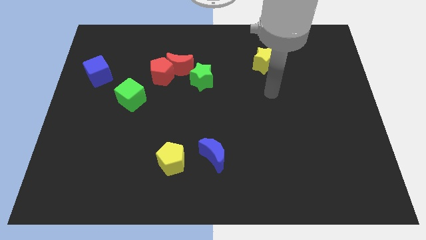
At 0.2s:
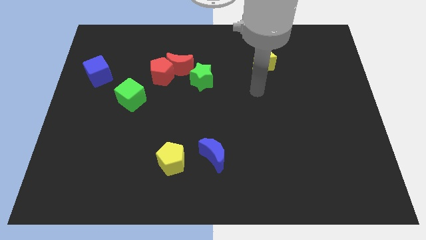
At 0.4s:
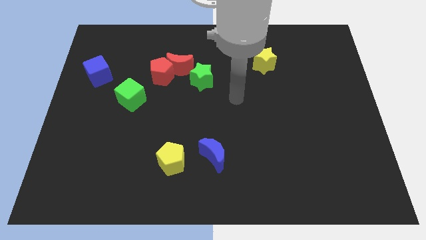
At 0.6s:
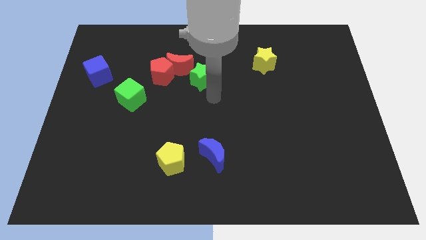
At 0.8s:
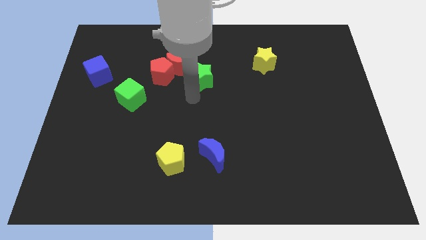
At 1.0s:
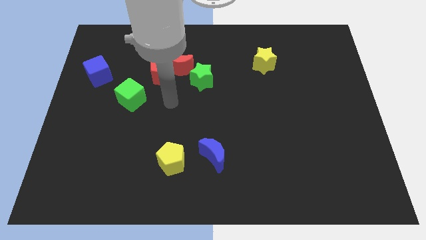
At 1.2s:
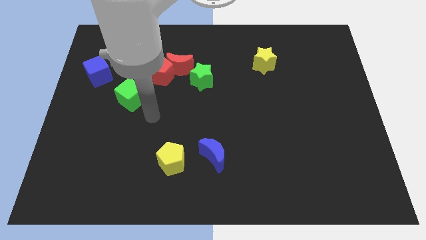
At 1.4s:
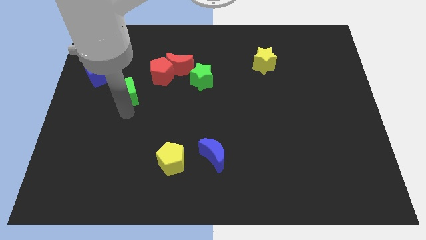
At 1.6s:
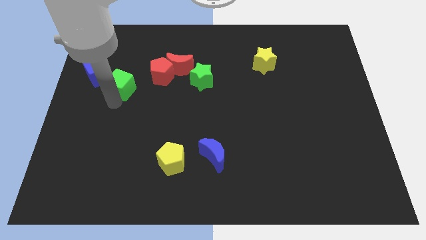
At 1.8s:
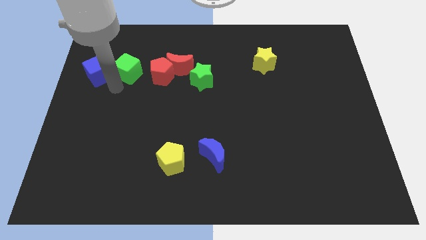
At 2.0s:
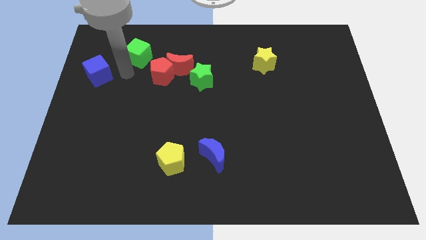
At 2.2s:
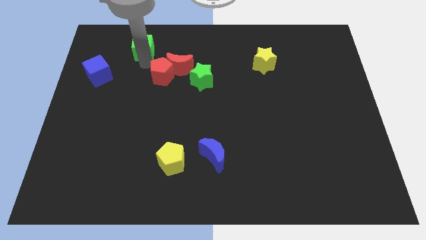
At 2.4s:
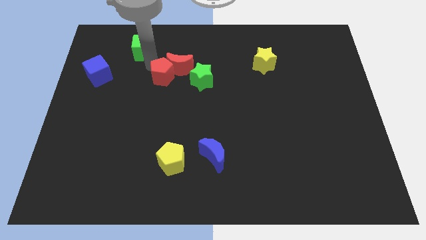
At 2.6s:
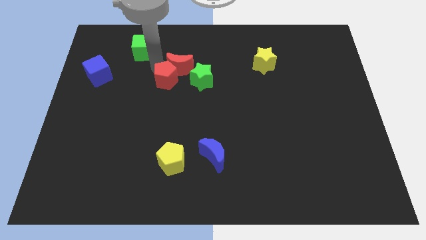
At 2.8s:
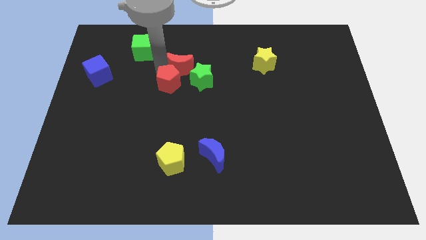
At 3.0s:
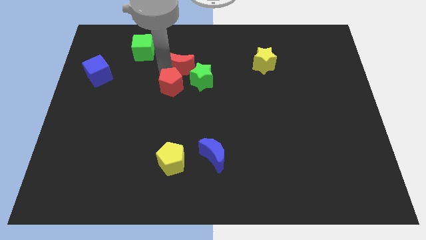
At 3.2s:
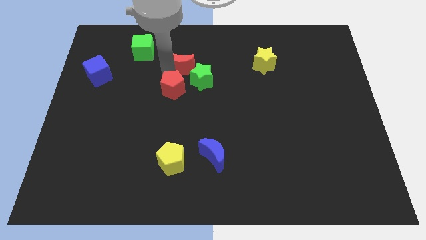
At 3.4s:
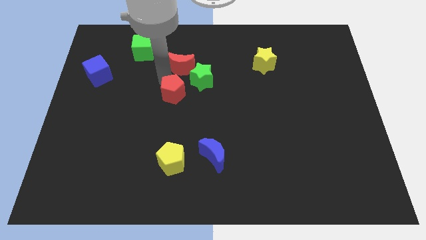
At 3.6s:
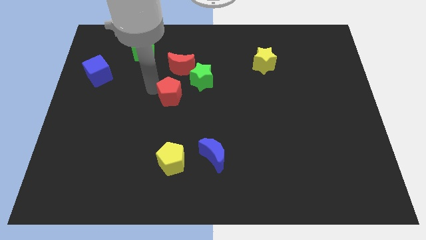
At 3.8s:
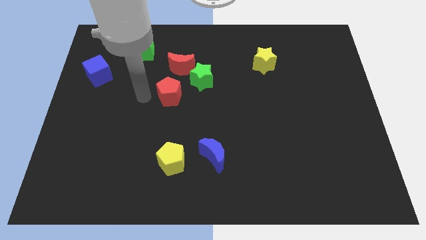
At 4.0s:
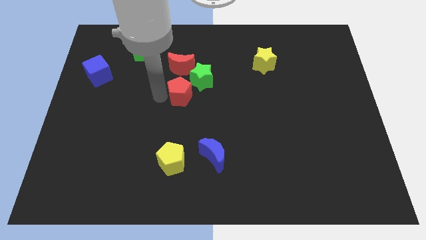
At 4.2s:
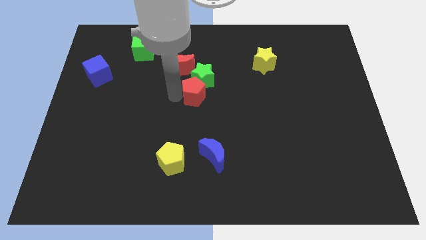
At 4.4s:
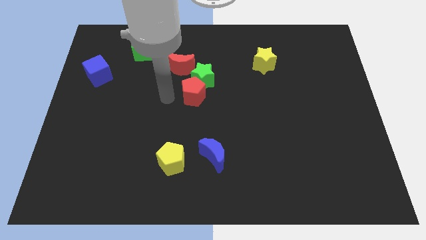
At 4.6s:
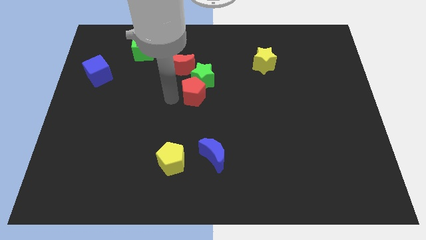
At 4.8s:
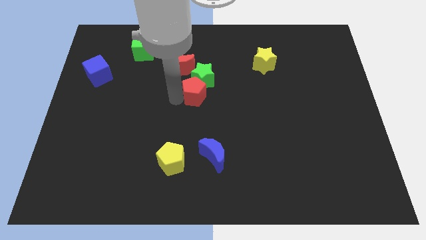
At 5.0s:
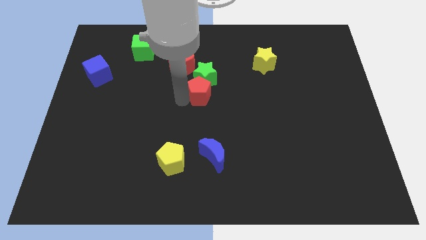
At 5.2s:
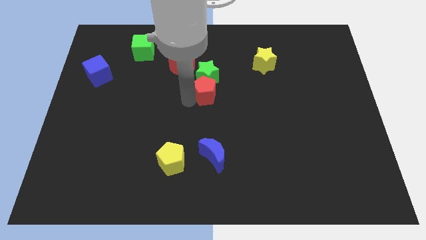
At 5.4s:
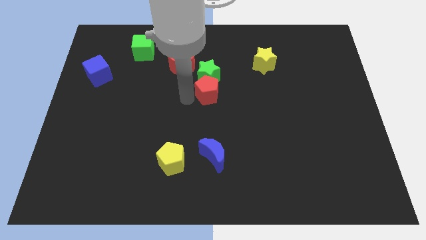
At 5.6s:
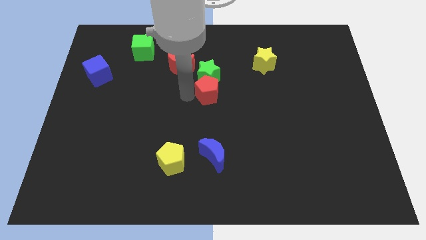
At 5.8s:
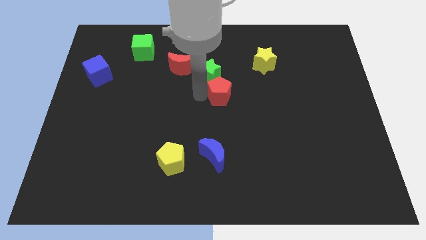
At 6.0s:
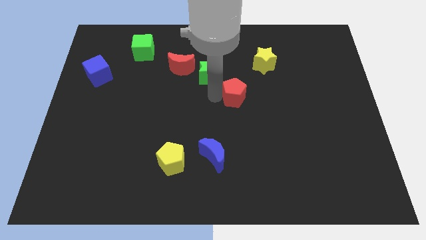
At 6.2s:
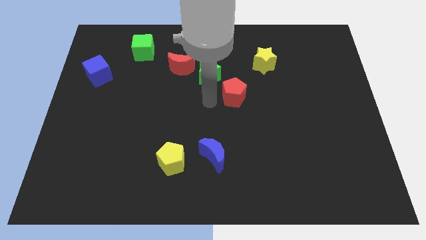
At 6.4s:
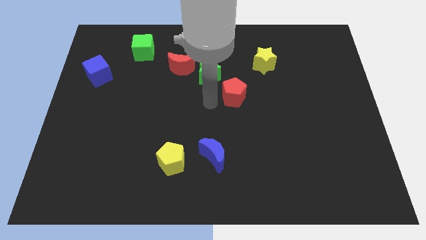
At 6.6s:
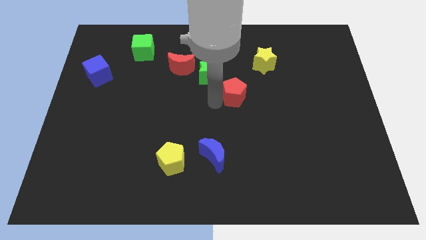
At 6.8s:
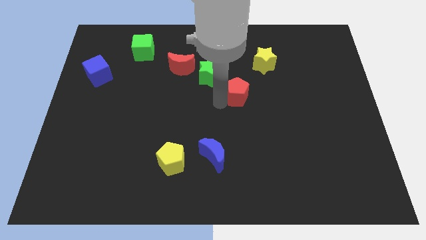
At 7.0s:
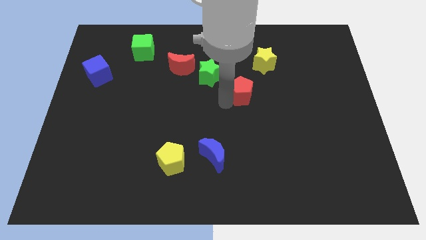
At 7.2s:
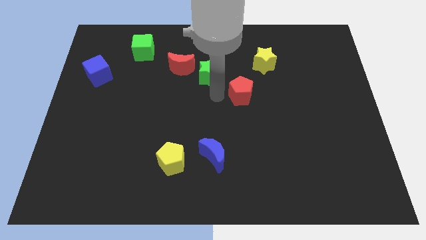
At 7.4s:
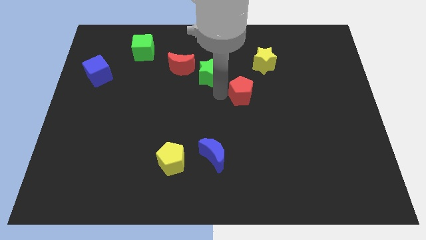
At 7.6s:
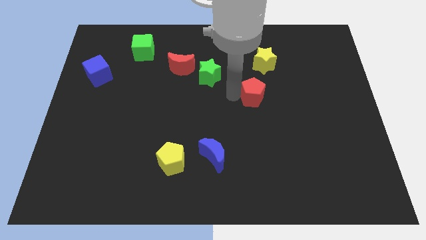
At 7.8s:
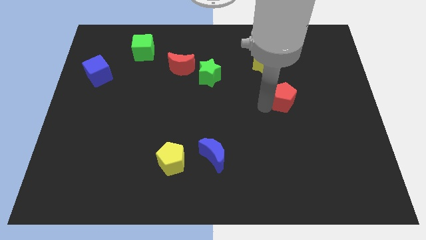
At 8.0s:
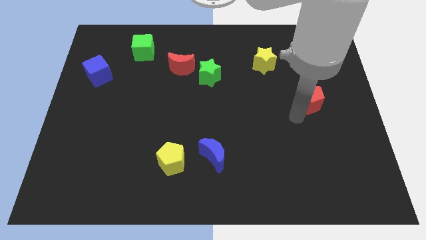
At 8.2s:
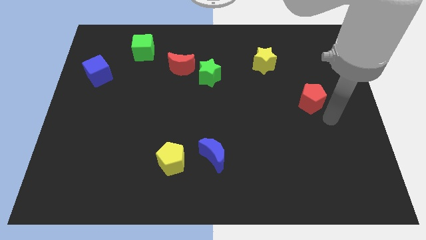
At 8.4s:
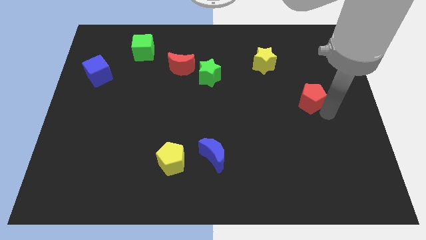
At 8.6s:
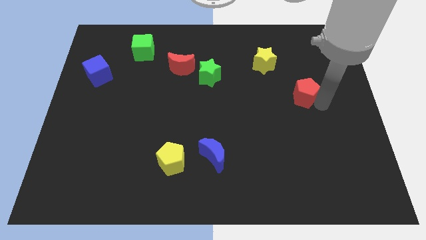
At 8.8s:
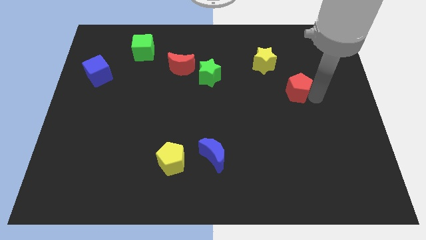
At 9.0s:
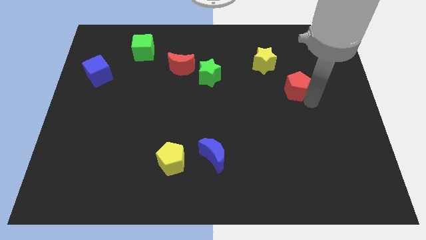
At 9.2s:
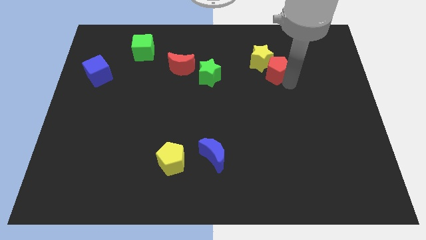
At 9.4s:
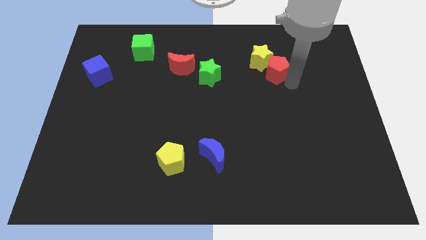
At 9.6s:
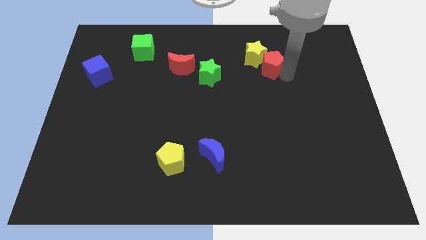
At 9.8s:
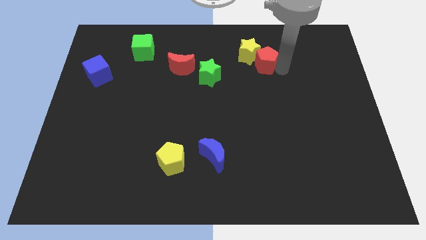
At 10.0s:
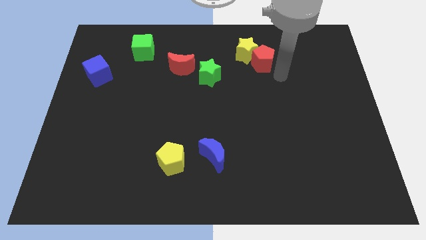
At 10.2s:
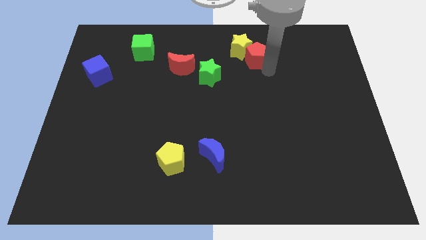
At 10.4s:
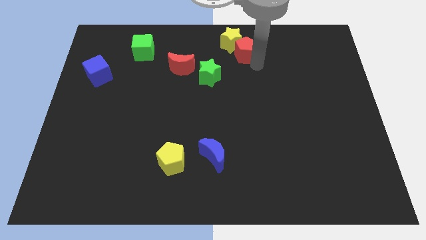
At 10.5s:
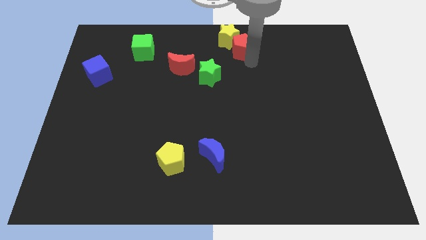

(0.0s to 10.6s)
slide the red pentagon to the top

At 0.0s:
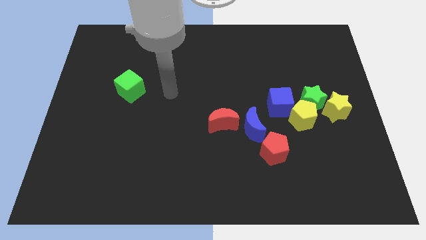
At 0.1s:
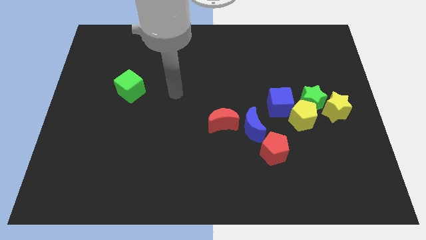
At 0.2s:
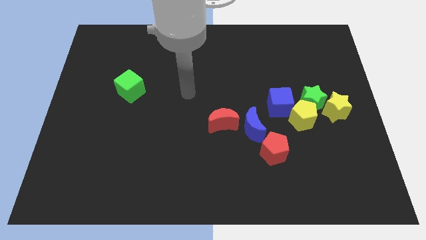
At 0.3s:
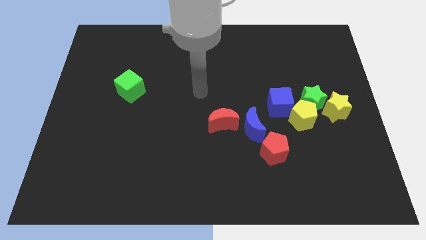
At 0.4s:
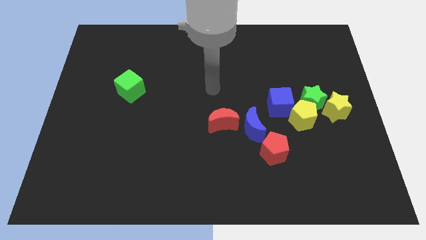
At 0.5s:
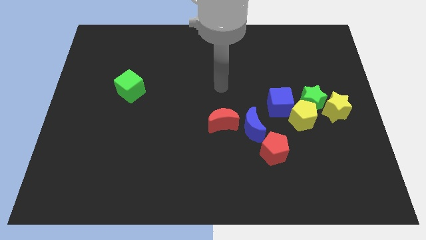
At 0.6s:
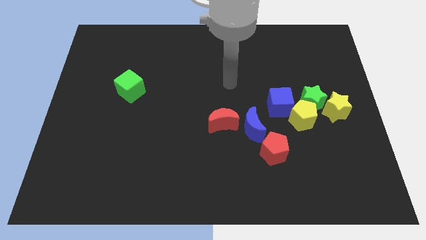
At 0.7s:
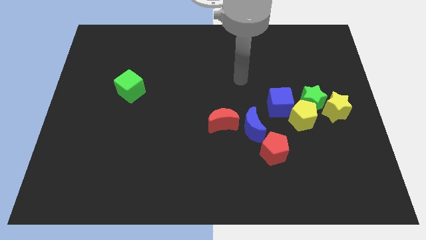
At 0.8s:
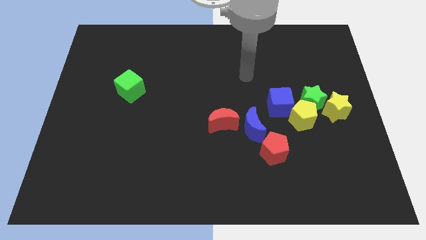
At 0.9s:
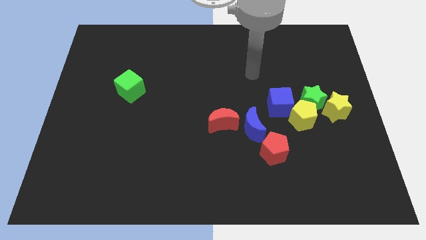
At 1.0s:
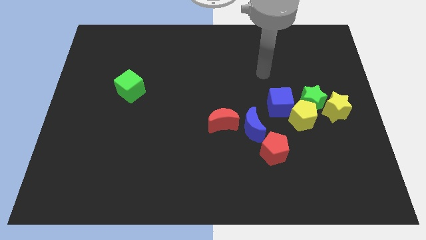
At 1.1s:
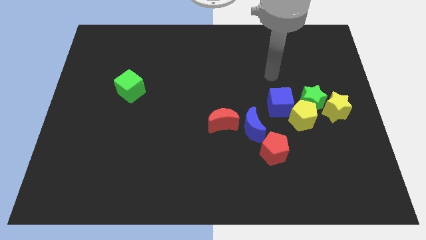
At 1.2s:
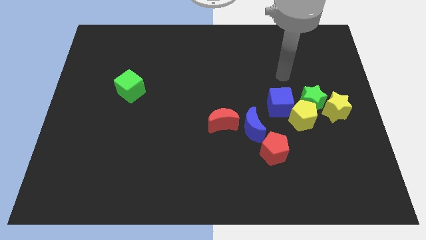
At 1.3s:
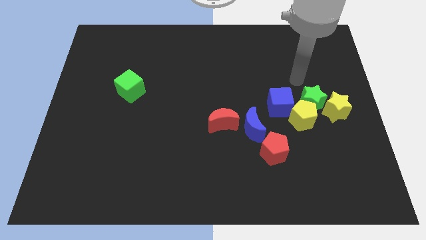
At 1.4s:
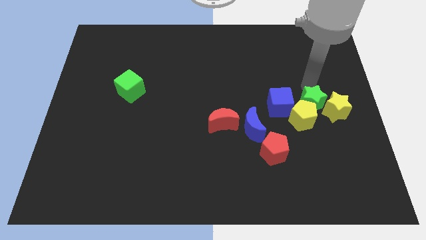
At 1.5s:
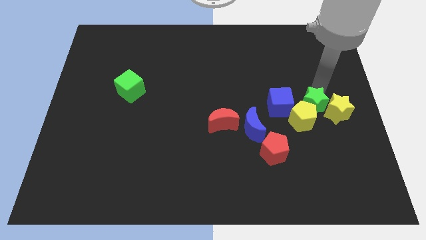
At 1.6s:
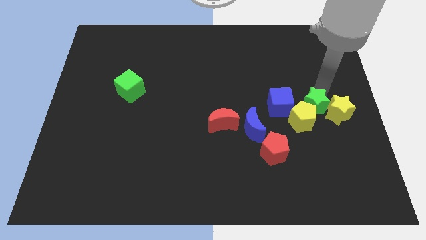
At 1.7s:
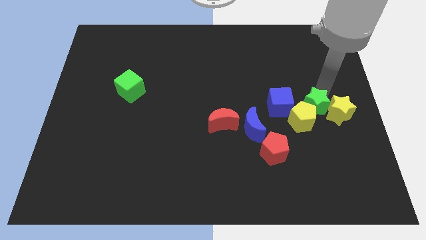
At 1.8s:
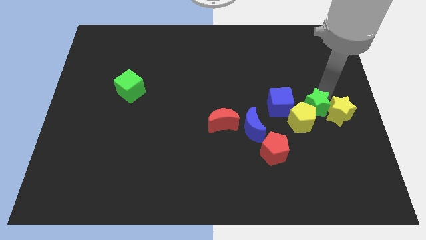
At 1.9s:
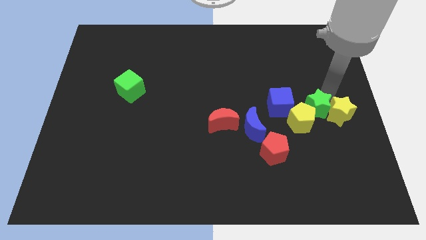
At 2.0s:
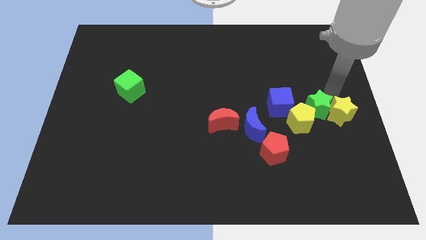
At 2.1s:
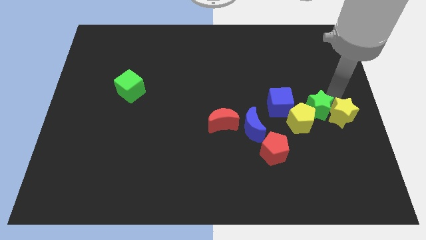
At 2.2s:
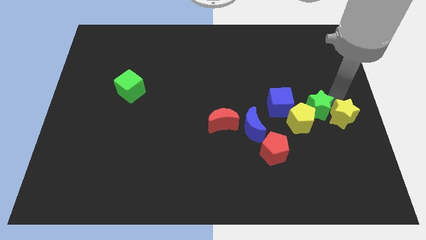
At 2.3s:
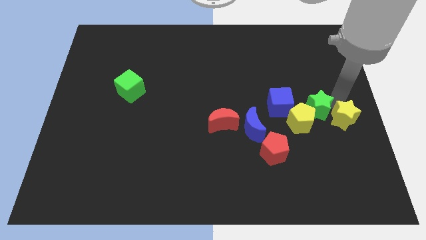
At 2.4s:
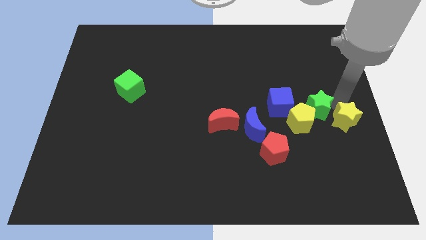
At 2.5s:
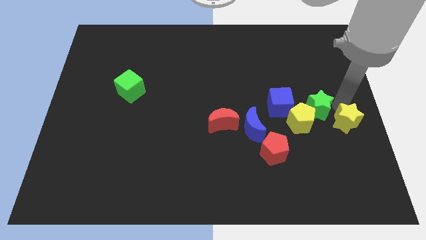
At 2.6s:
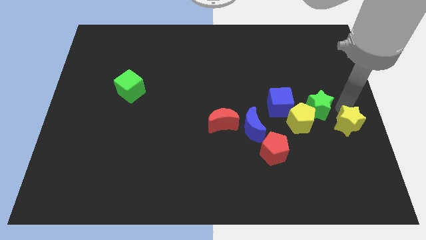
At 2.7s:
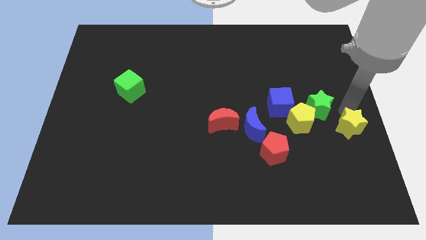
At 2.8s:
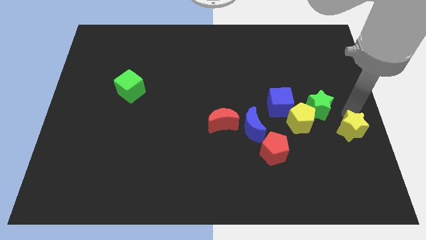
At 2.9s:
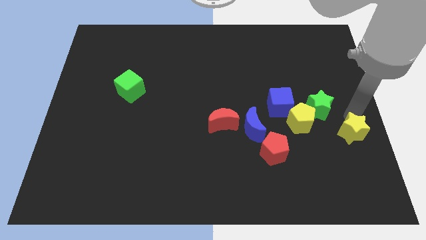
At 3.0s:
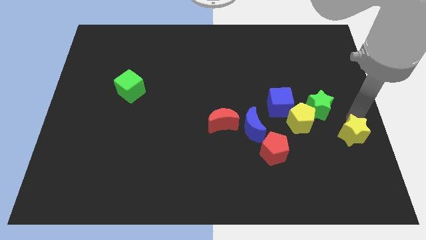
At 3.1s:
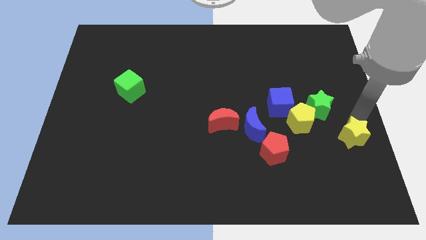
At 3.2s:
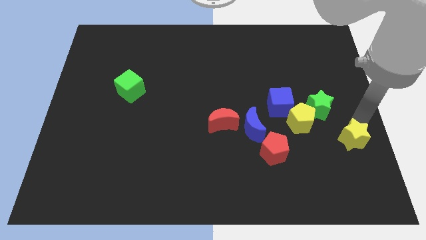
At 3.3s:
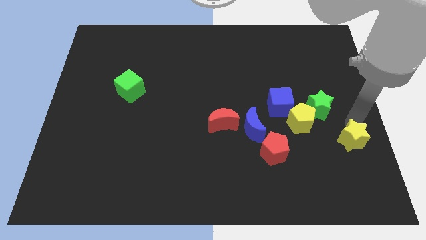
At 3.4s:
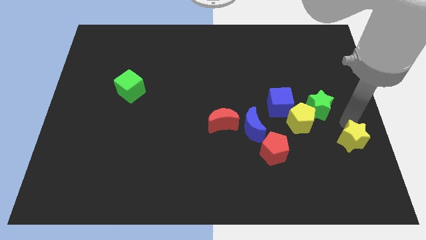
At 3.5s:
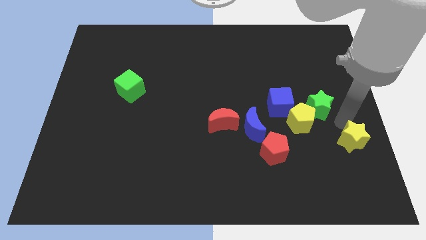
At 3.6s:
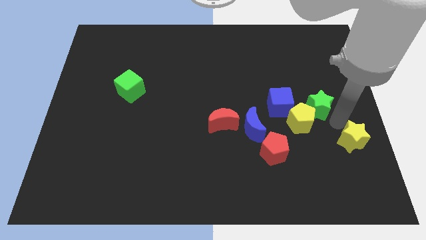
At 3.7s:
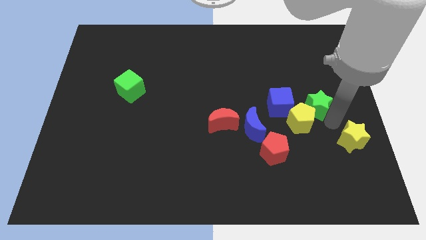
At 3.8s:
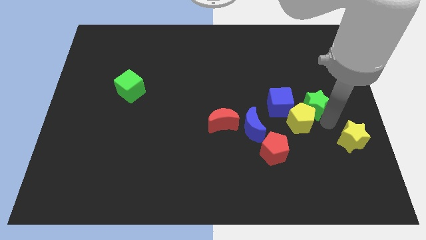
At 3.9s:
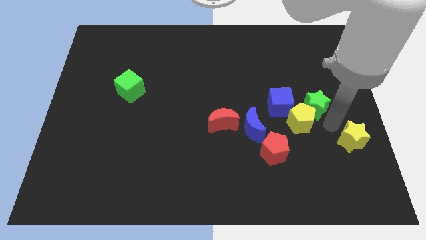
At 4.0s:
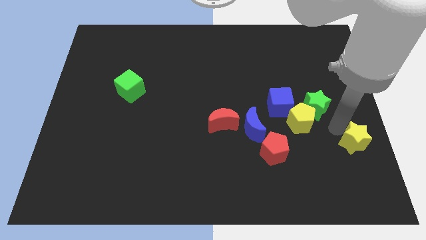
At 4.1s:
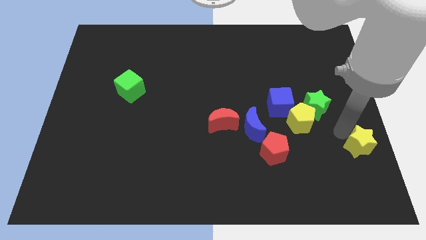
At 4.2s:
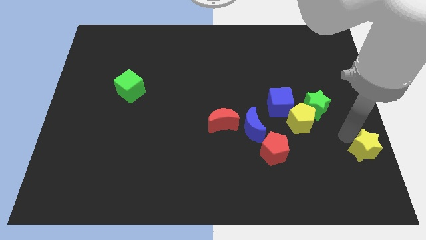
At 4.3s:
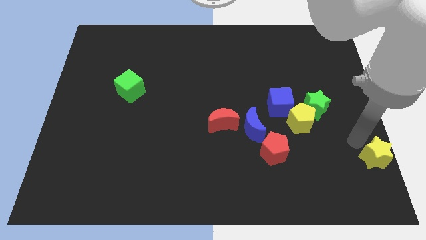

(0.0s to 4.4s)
move the yellow star to the bottom right of the board
